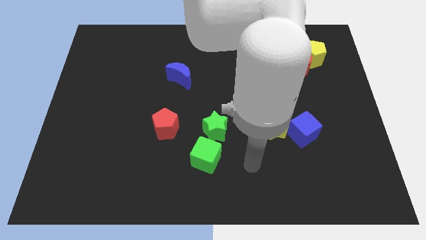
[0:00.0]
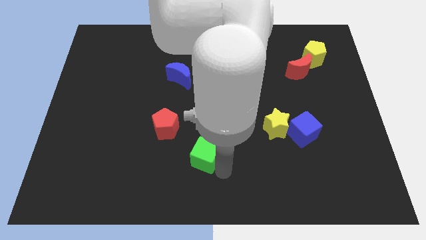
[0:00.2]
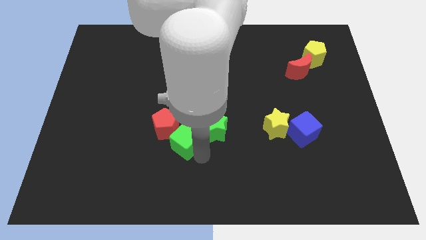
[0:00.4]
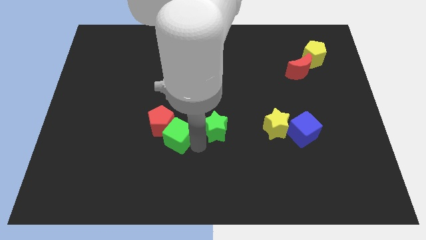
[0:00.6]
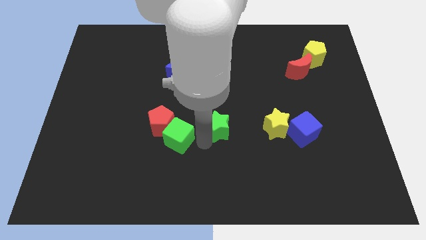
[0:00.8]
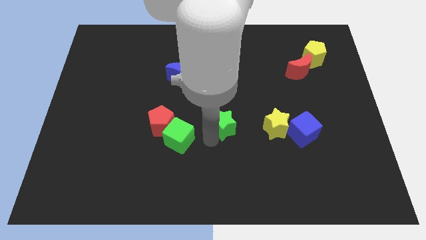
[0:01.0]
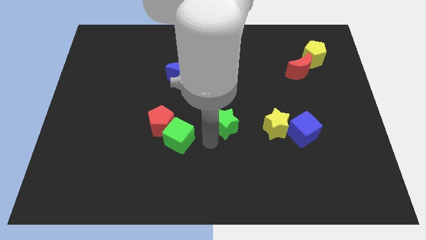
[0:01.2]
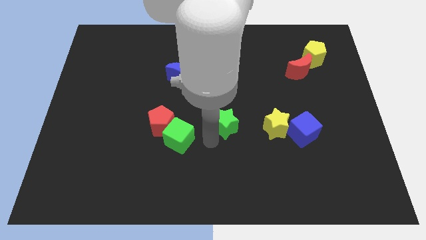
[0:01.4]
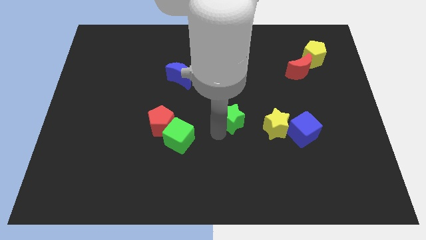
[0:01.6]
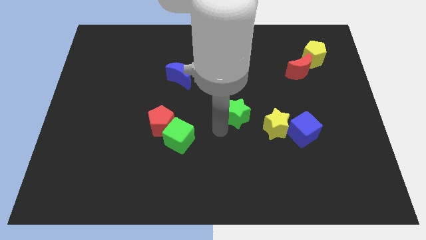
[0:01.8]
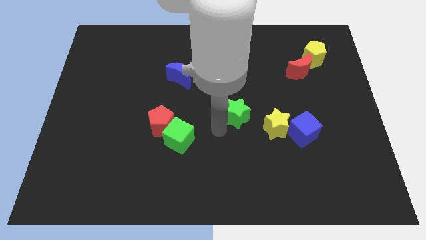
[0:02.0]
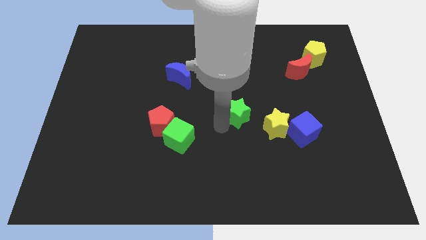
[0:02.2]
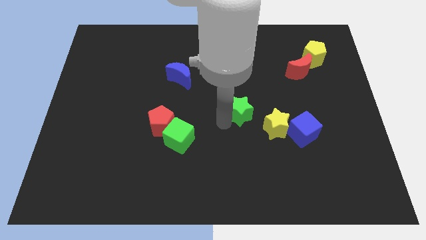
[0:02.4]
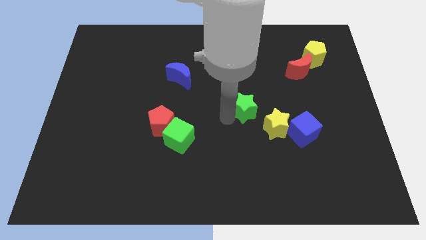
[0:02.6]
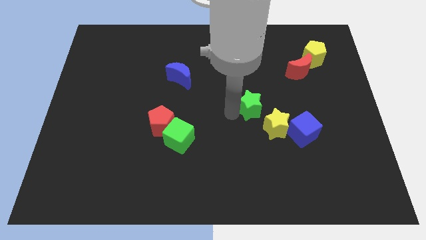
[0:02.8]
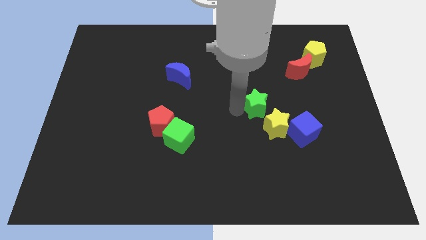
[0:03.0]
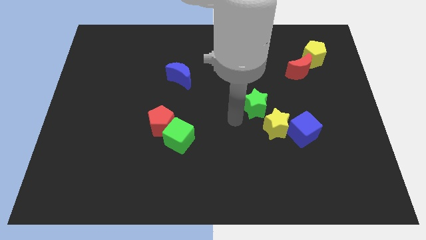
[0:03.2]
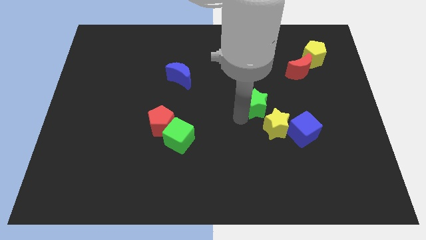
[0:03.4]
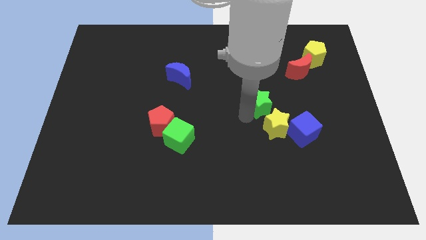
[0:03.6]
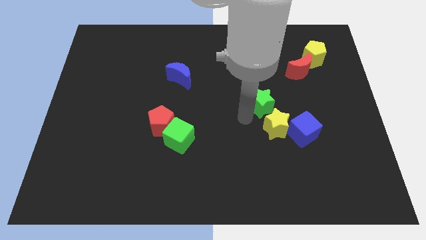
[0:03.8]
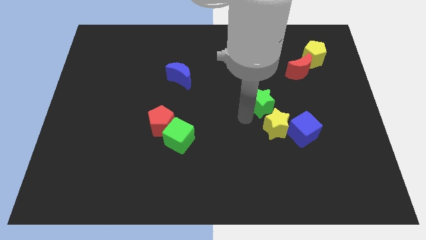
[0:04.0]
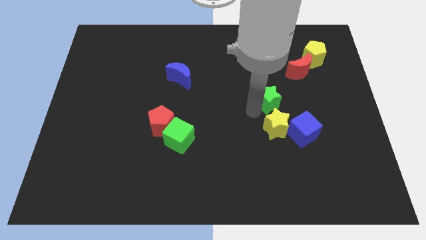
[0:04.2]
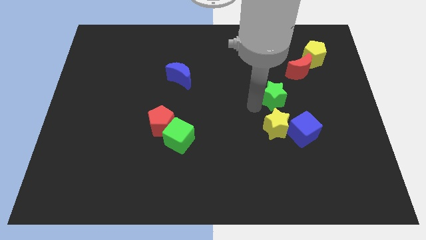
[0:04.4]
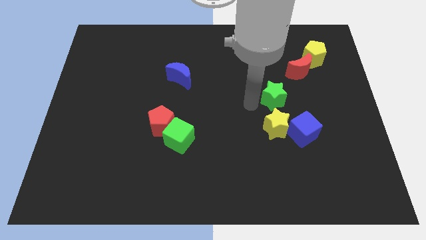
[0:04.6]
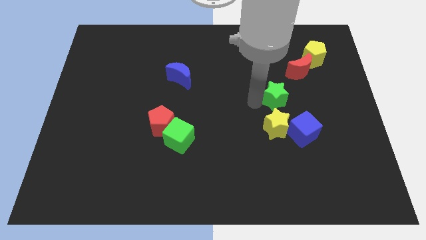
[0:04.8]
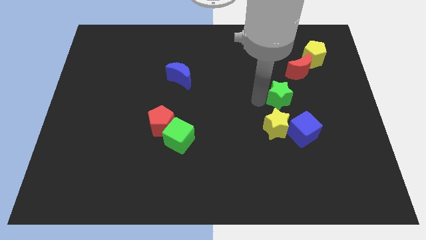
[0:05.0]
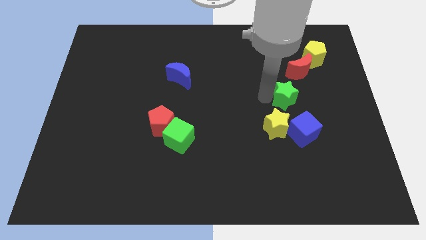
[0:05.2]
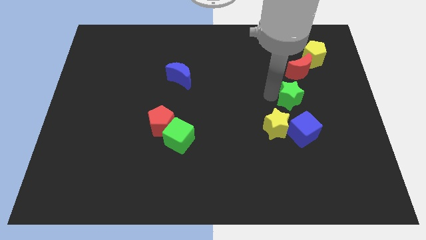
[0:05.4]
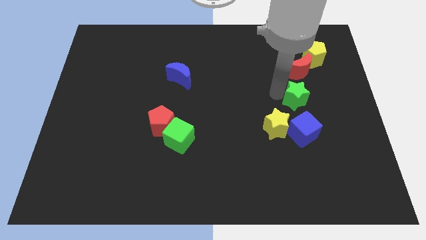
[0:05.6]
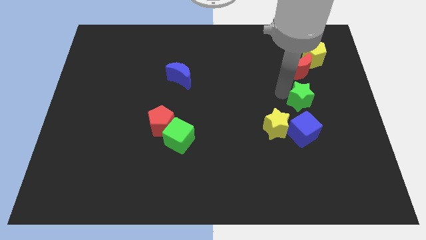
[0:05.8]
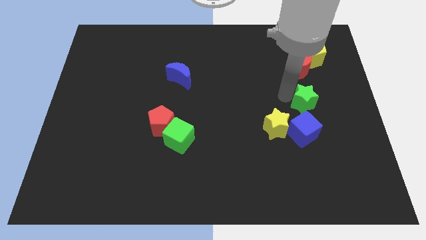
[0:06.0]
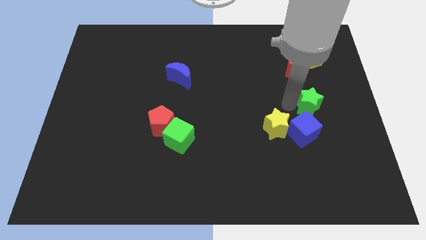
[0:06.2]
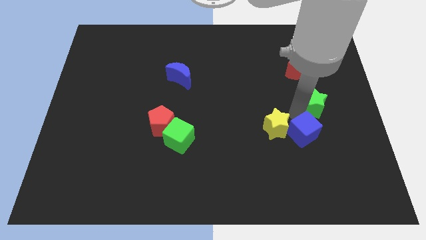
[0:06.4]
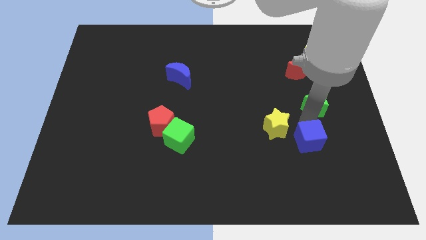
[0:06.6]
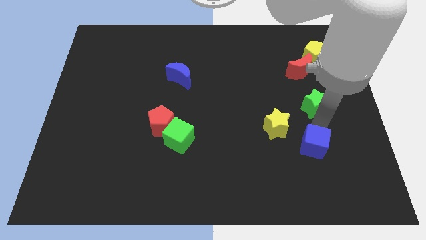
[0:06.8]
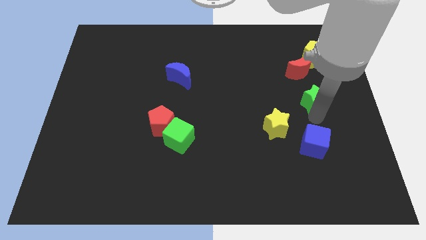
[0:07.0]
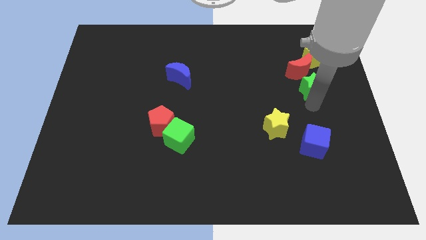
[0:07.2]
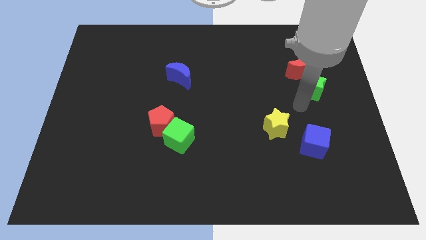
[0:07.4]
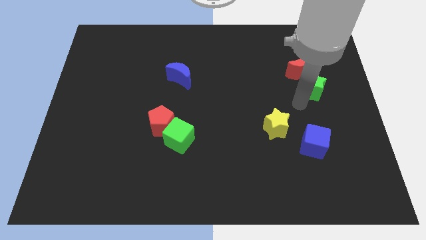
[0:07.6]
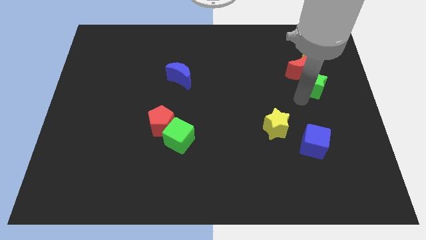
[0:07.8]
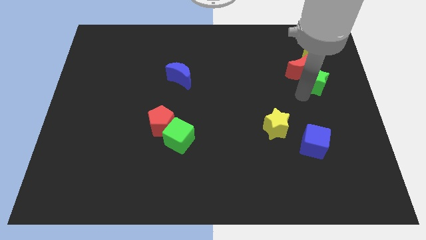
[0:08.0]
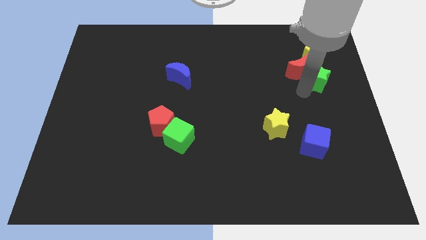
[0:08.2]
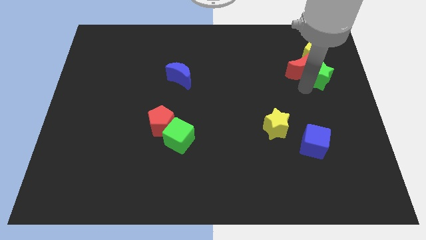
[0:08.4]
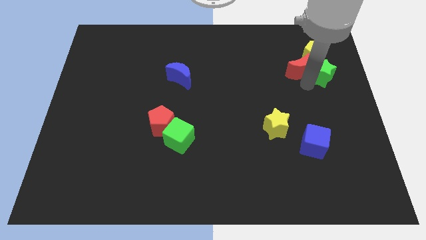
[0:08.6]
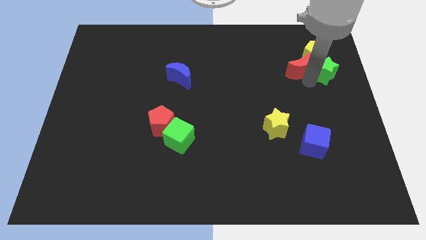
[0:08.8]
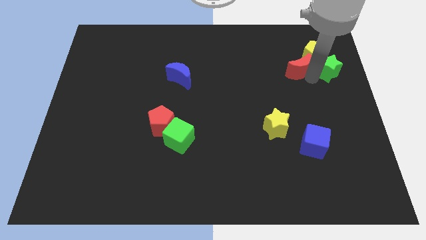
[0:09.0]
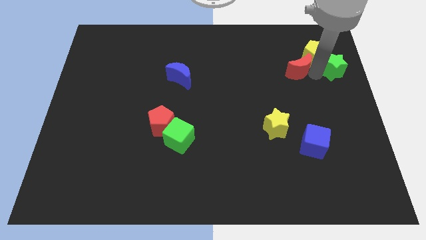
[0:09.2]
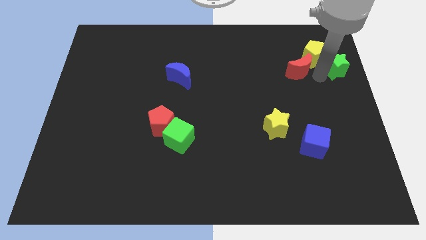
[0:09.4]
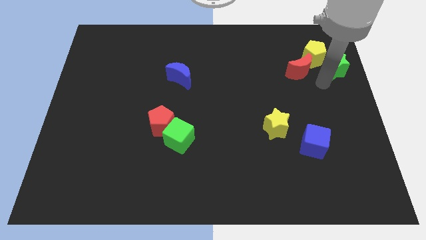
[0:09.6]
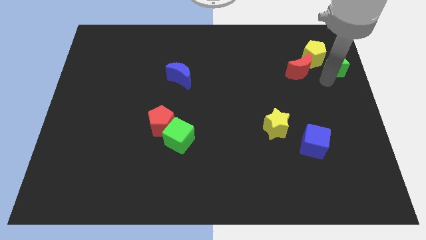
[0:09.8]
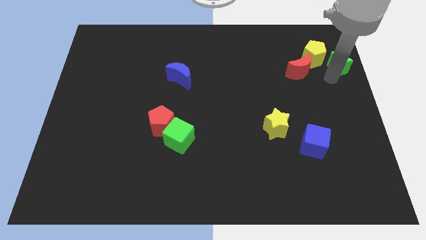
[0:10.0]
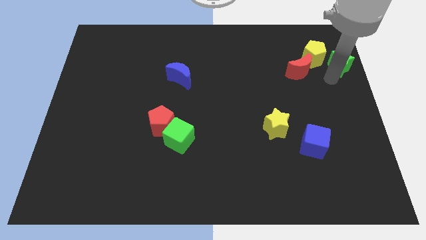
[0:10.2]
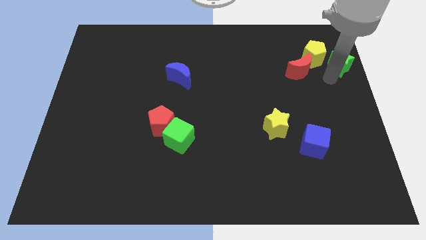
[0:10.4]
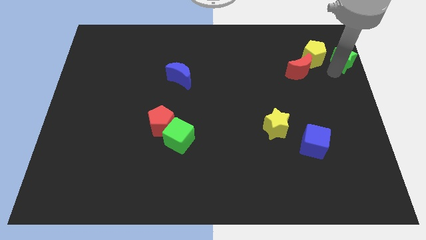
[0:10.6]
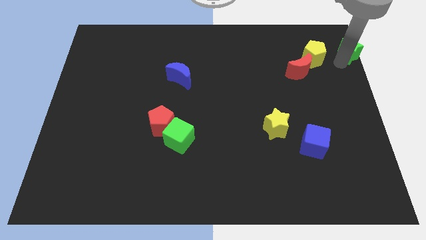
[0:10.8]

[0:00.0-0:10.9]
move the green star to the top right corner

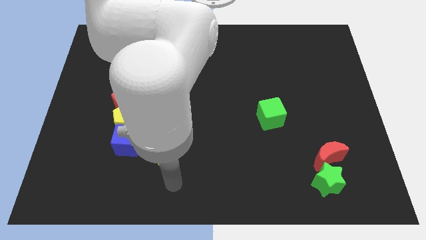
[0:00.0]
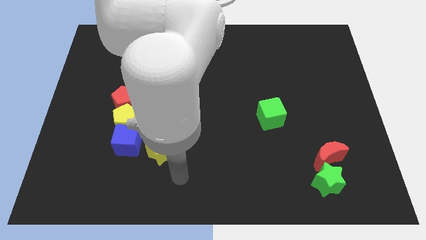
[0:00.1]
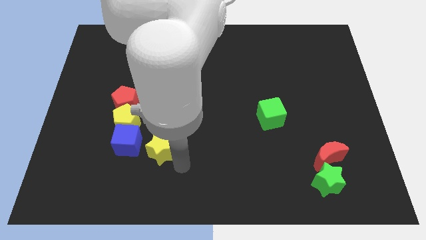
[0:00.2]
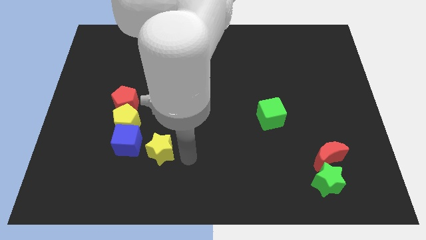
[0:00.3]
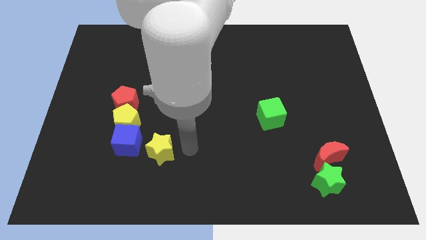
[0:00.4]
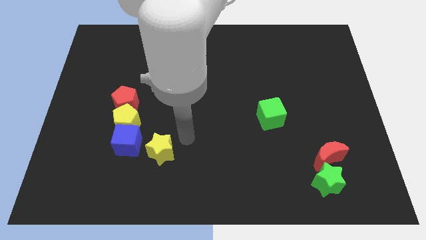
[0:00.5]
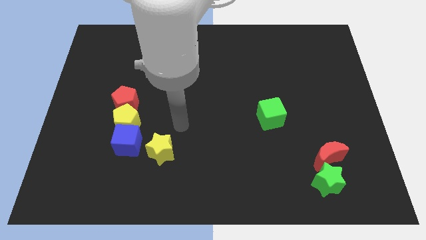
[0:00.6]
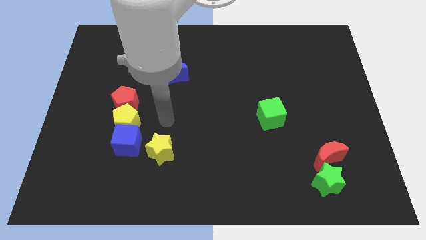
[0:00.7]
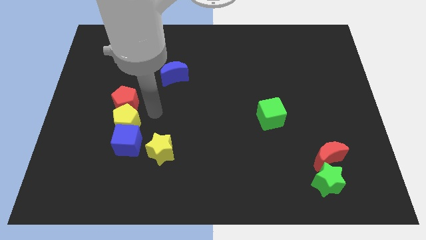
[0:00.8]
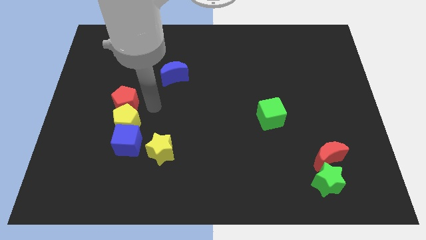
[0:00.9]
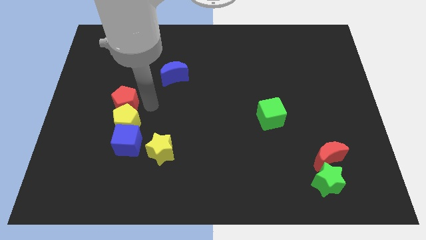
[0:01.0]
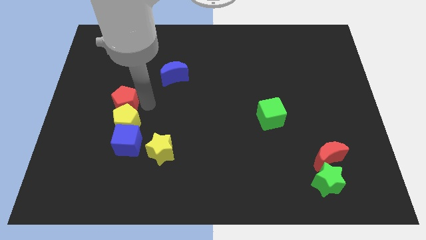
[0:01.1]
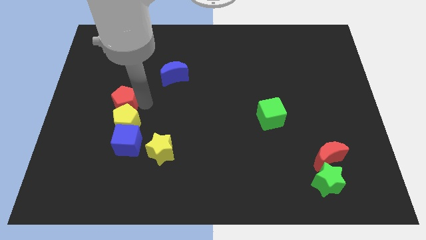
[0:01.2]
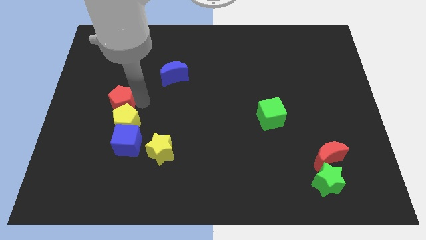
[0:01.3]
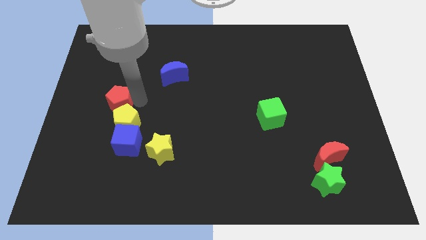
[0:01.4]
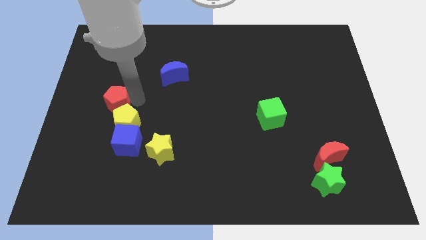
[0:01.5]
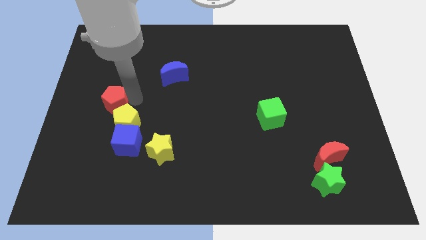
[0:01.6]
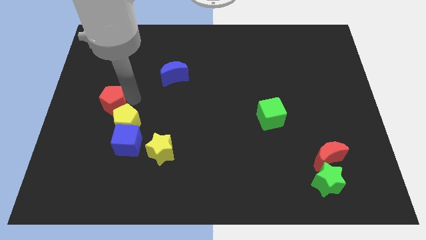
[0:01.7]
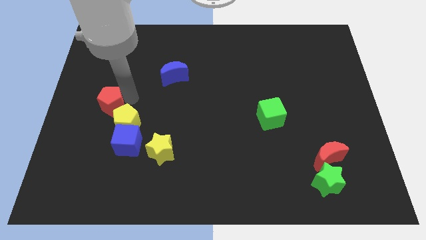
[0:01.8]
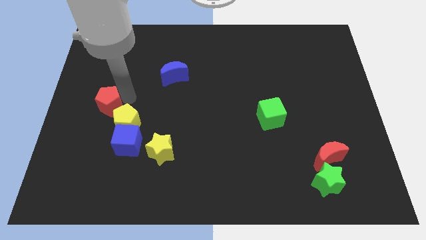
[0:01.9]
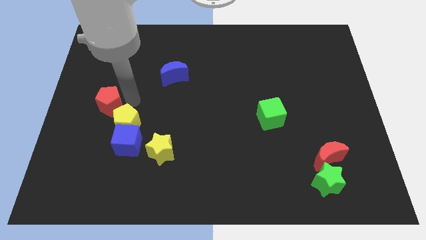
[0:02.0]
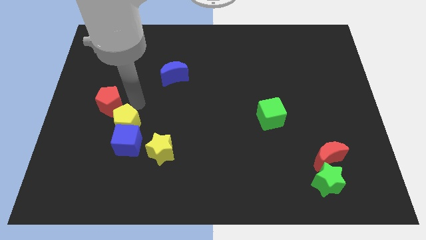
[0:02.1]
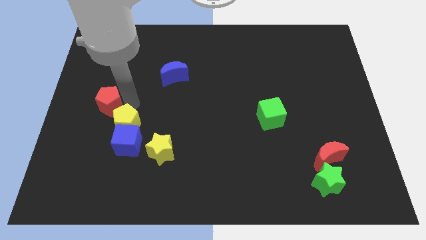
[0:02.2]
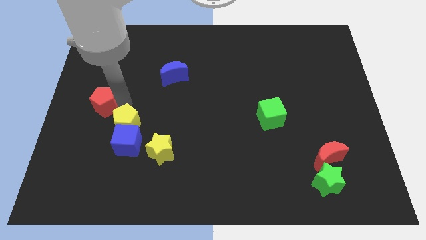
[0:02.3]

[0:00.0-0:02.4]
move the red pentagon to the center left
